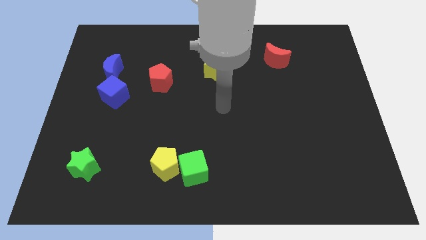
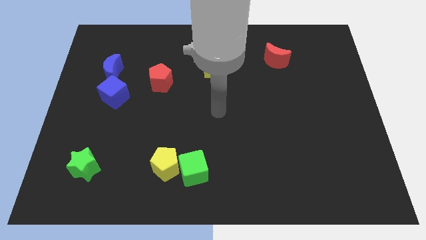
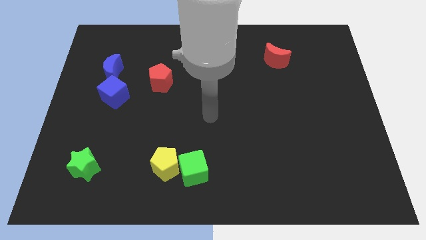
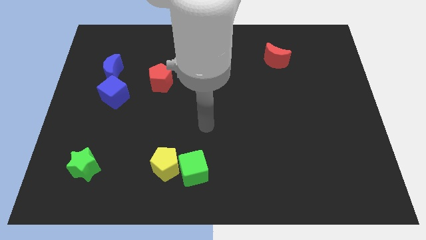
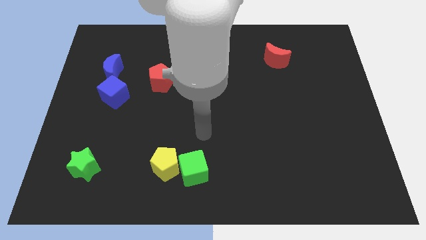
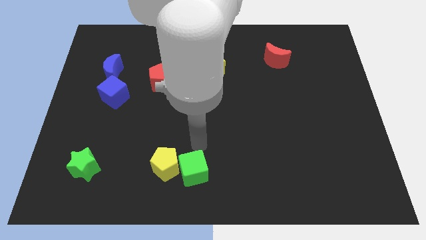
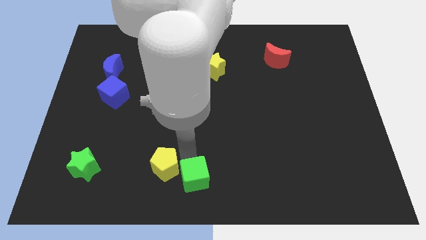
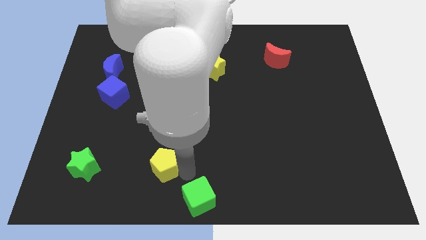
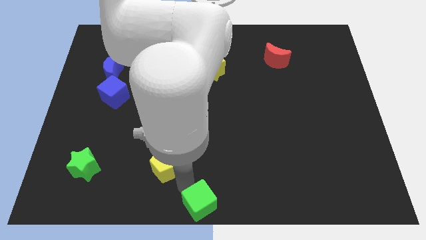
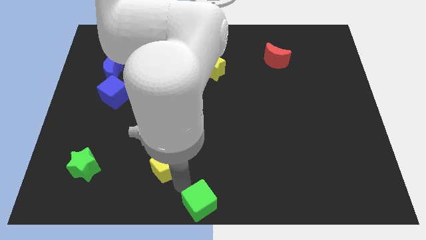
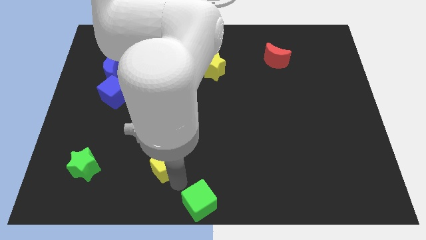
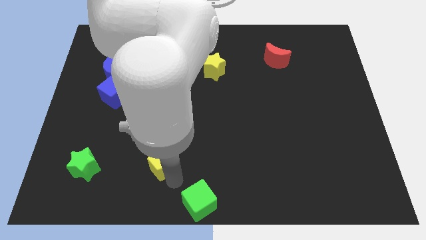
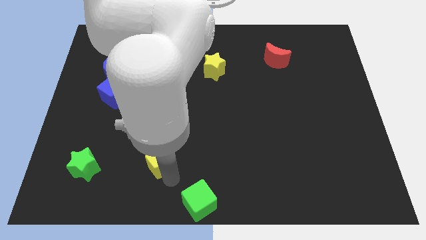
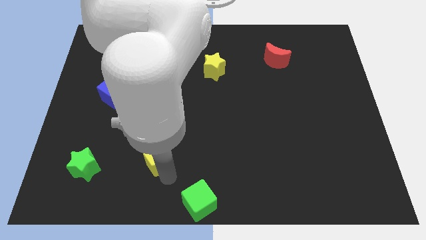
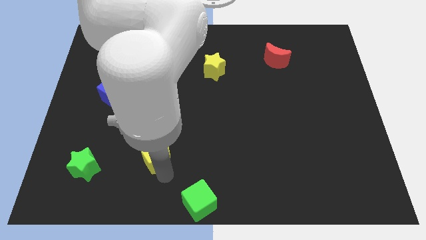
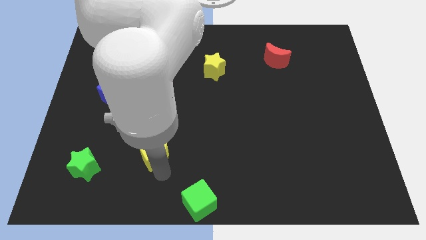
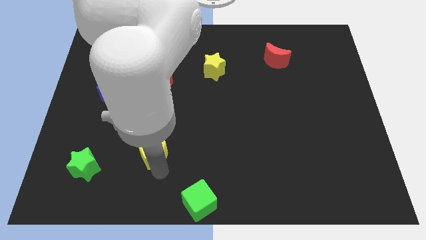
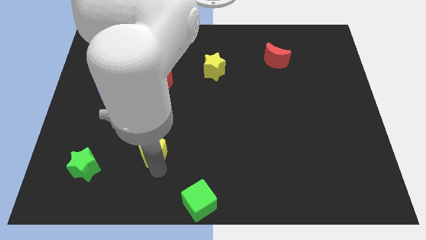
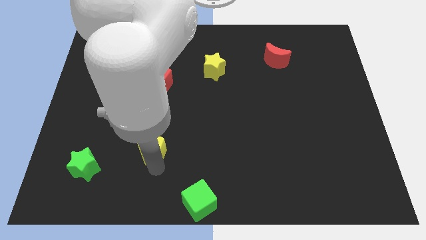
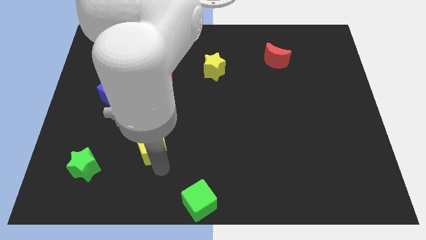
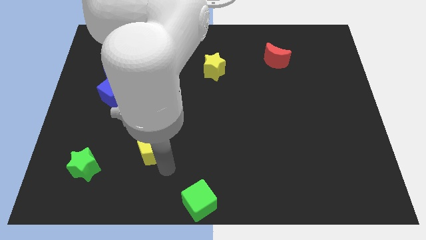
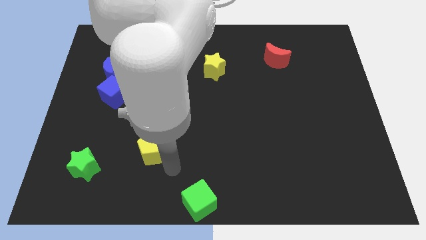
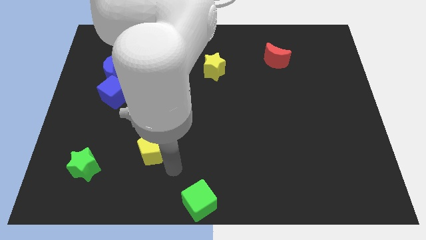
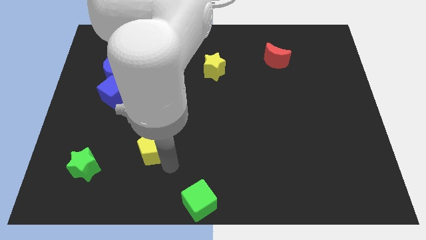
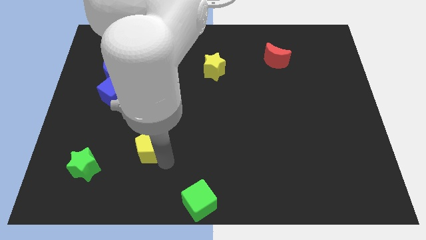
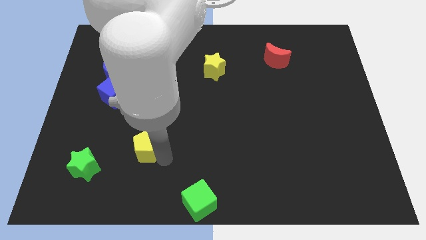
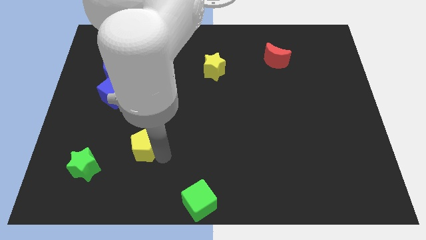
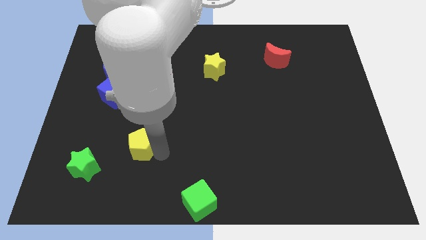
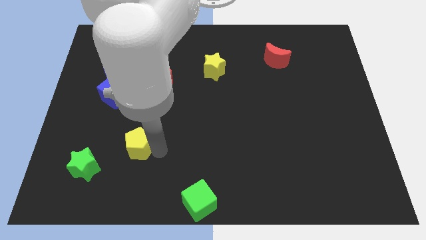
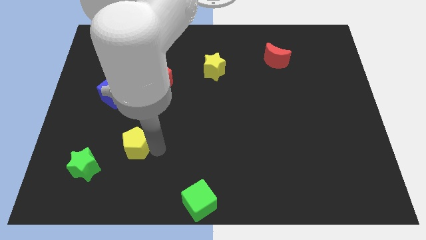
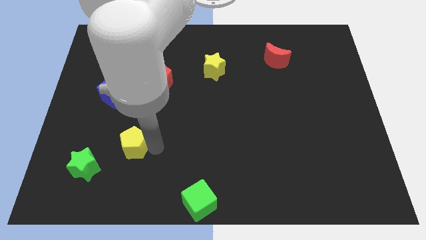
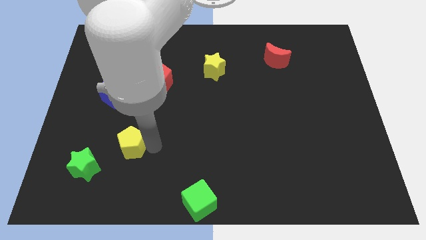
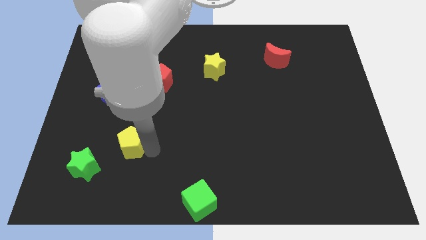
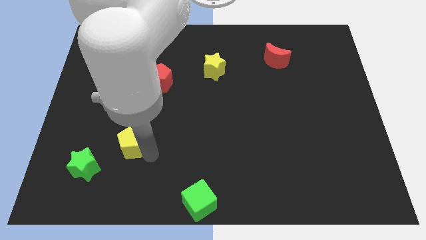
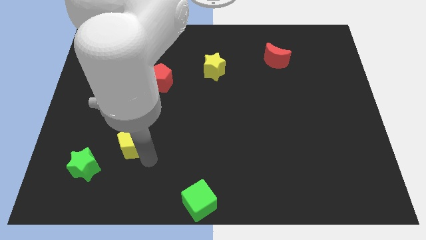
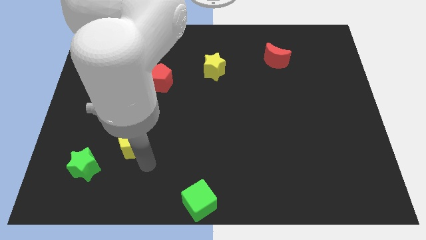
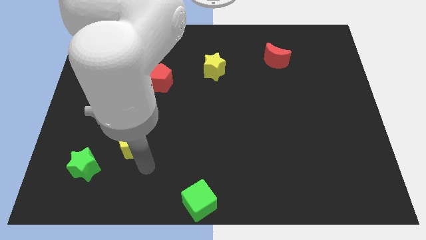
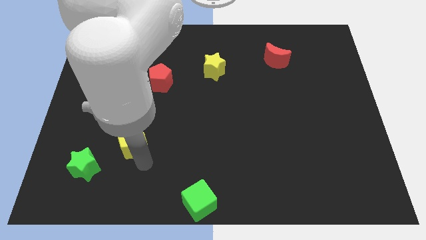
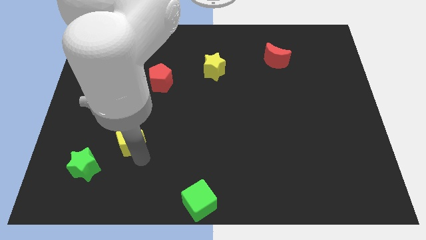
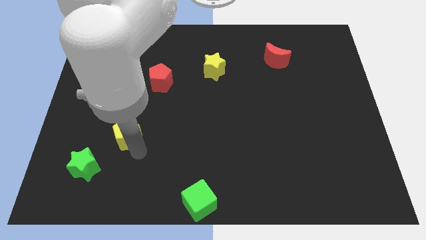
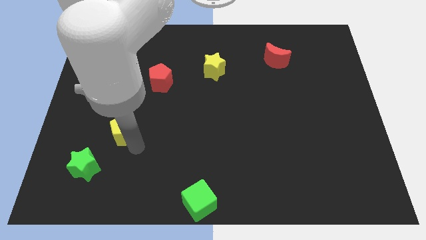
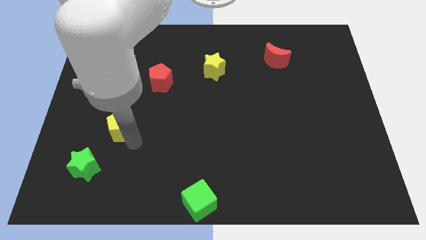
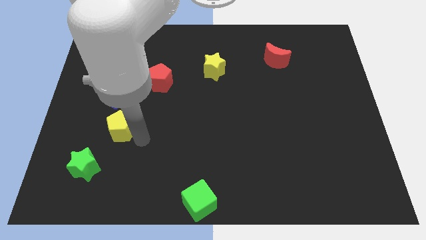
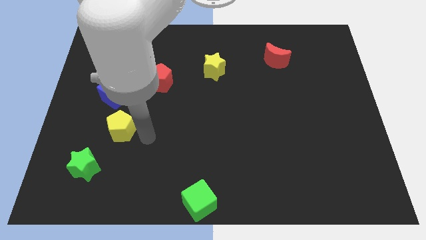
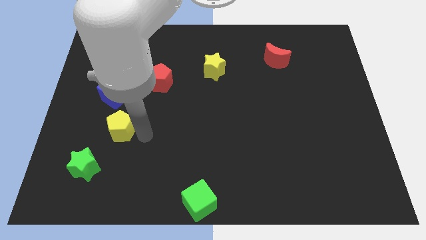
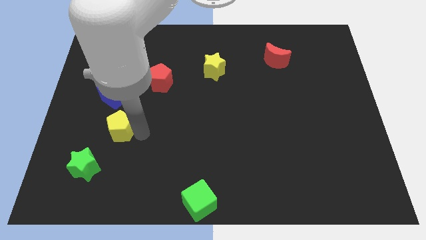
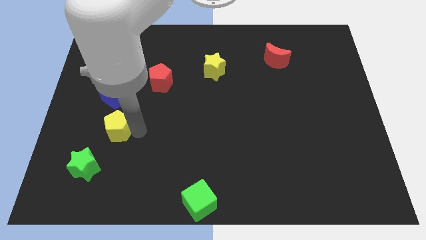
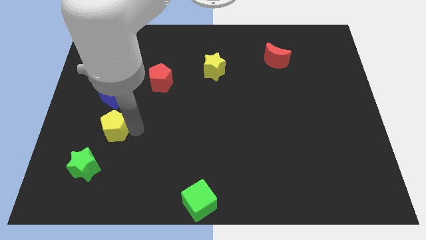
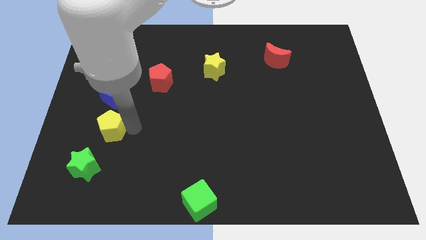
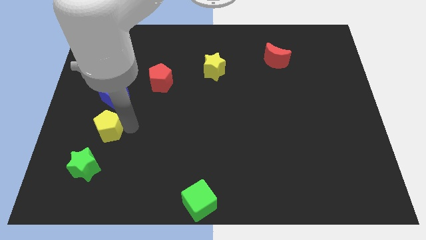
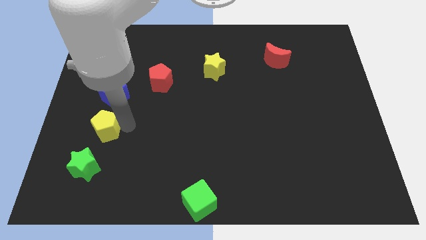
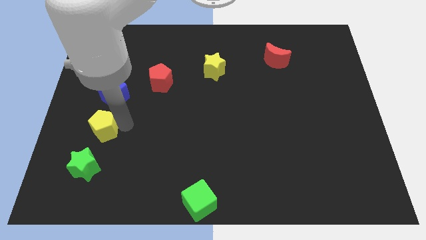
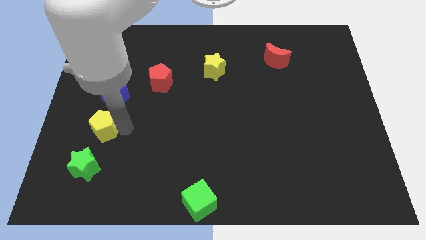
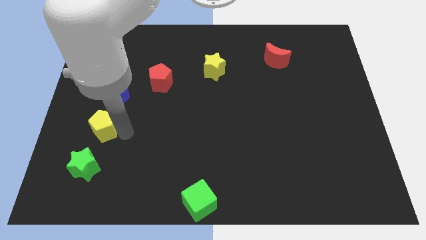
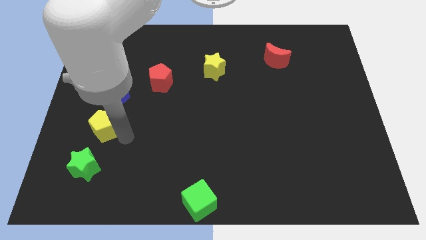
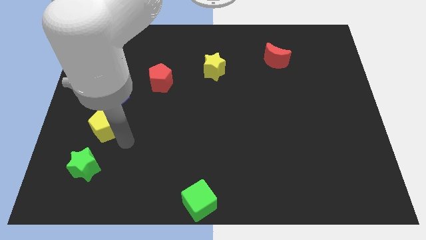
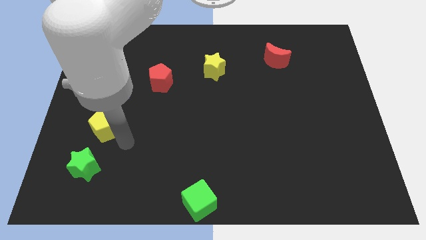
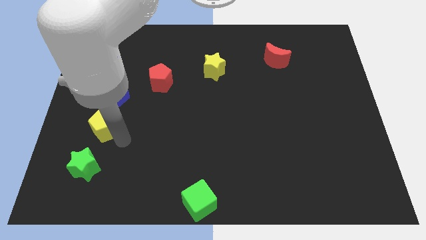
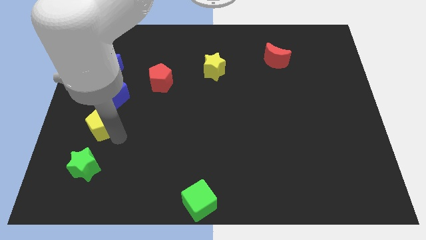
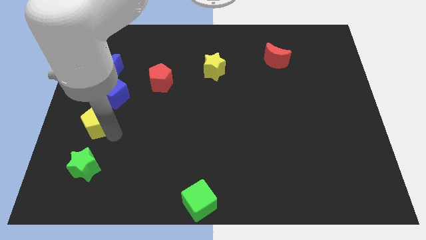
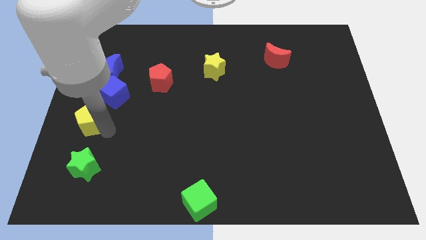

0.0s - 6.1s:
push the yellow pentagon to the left side of the board
